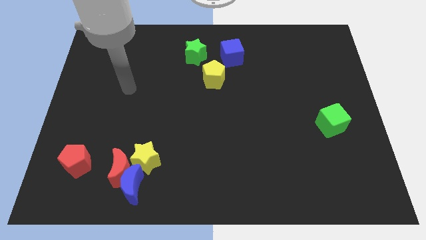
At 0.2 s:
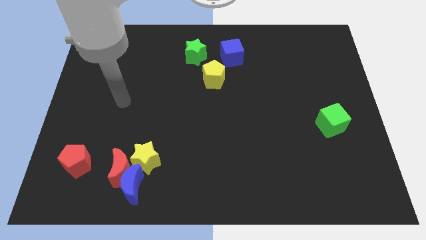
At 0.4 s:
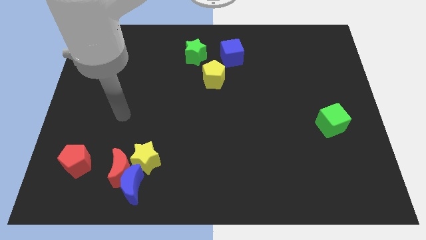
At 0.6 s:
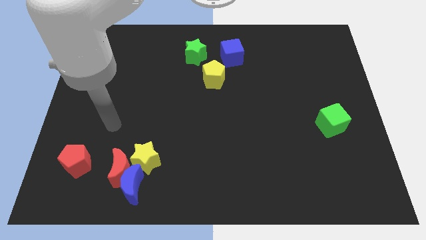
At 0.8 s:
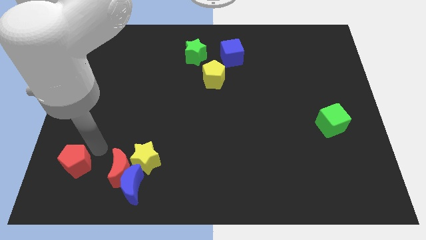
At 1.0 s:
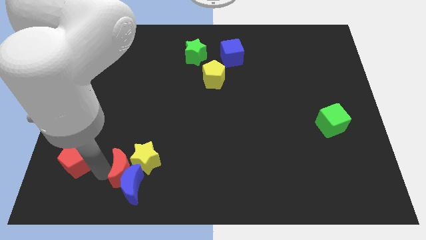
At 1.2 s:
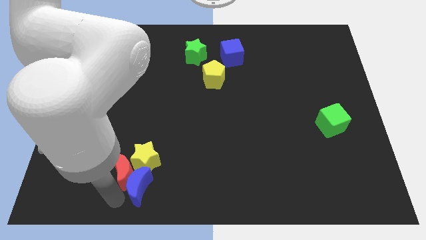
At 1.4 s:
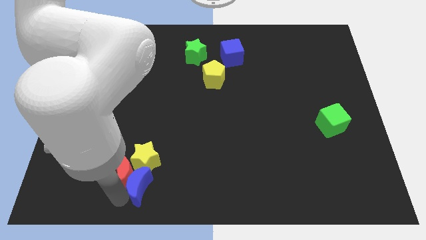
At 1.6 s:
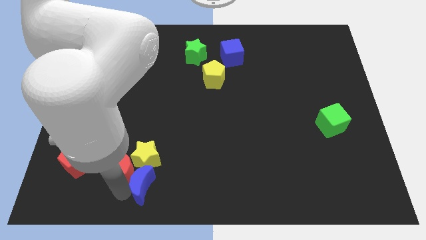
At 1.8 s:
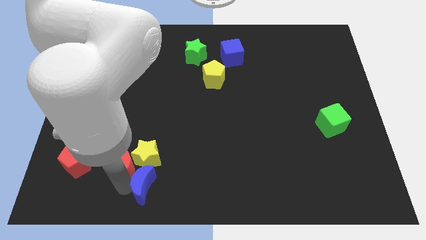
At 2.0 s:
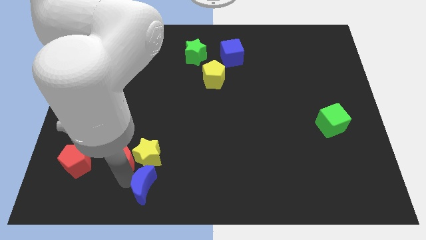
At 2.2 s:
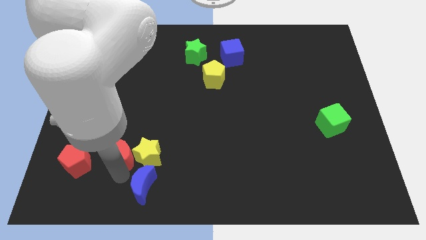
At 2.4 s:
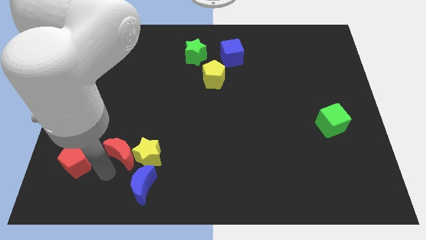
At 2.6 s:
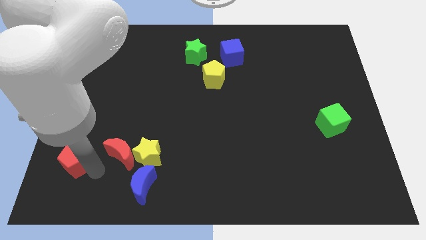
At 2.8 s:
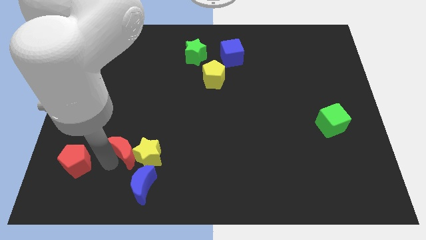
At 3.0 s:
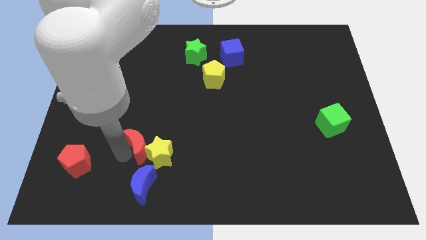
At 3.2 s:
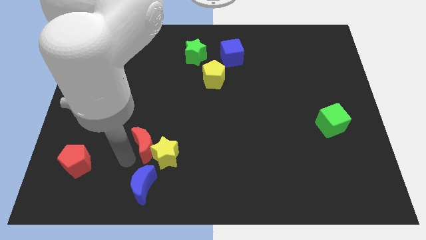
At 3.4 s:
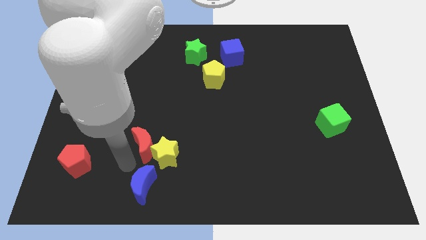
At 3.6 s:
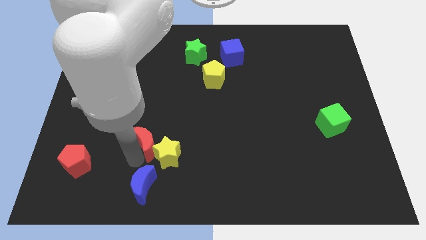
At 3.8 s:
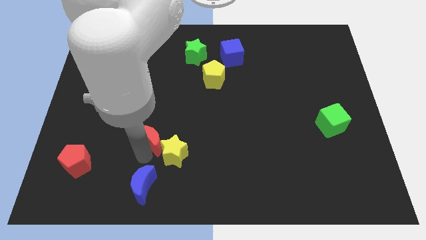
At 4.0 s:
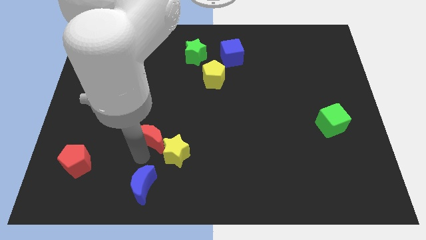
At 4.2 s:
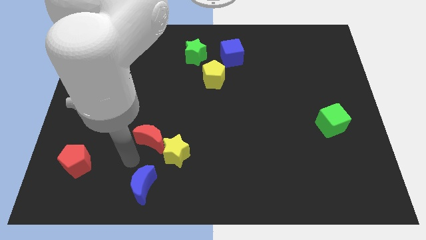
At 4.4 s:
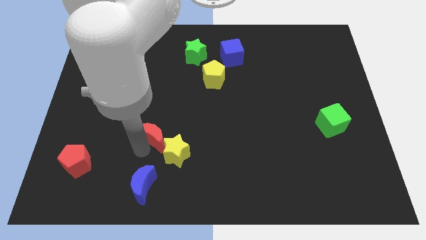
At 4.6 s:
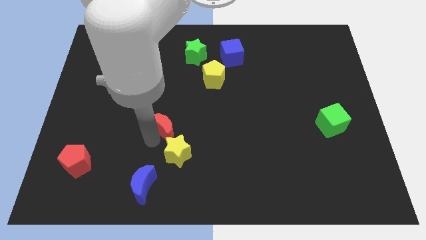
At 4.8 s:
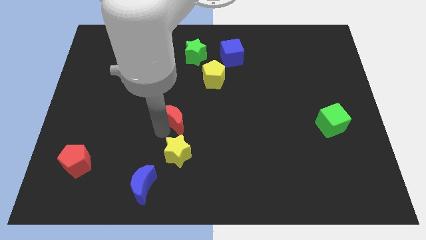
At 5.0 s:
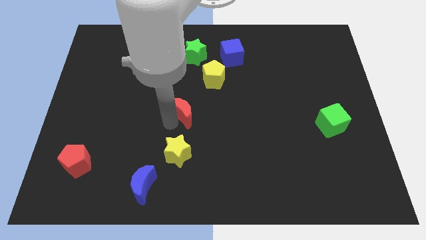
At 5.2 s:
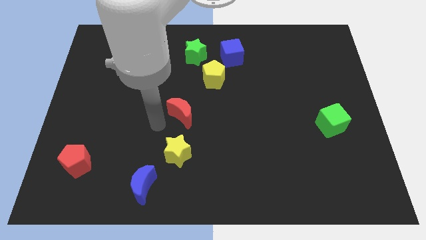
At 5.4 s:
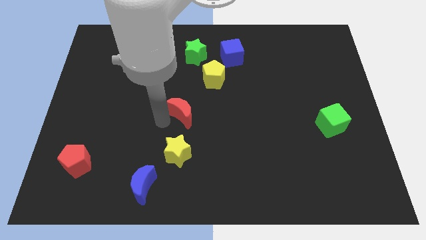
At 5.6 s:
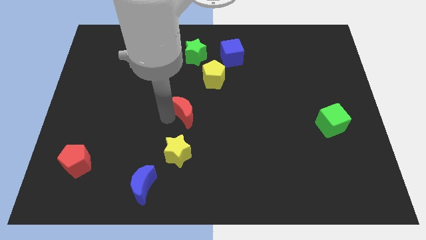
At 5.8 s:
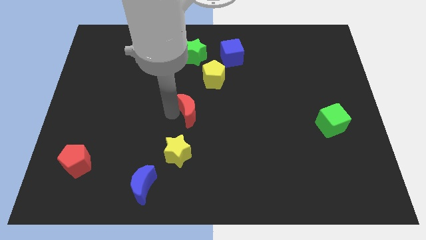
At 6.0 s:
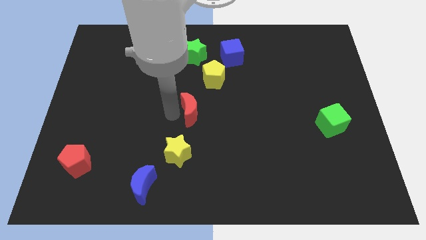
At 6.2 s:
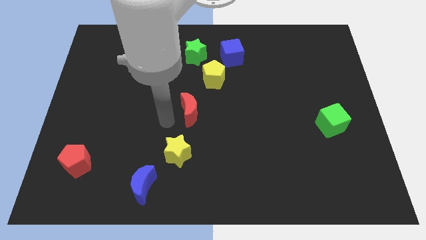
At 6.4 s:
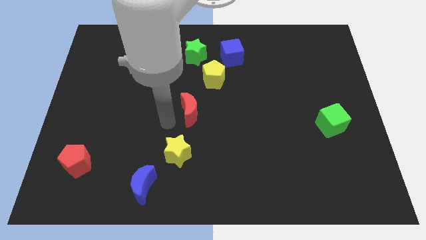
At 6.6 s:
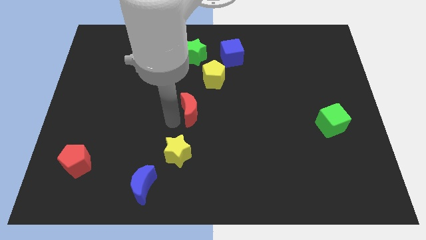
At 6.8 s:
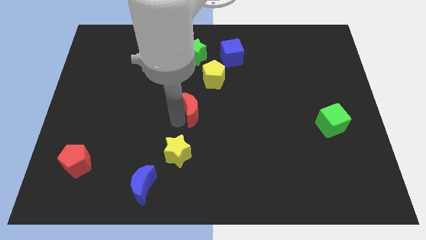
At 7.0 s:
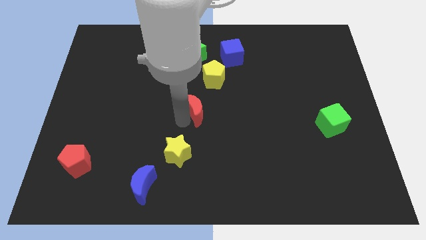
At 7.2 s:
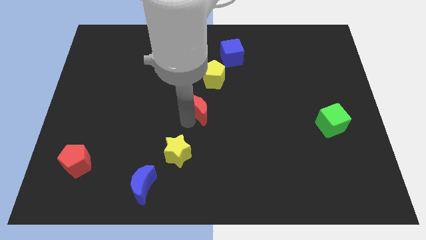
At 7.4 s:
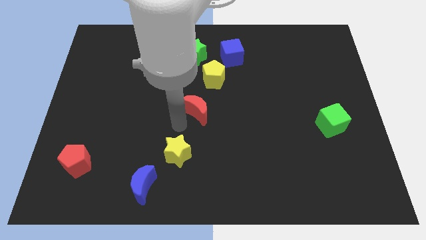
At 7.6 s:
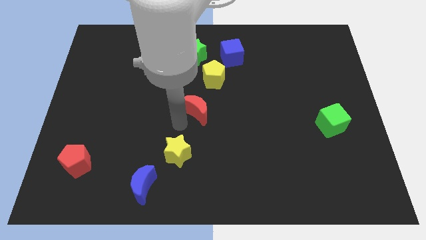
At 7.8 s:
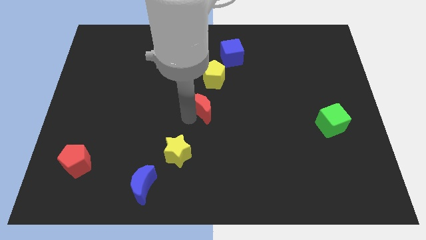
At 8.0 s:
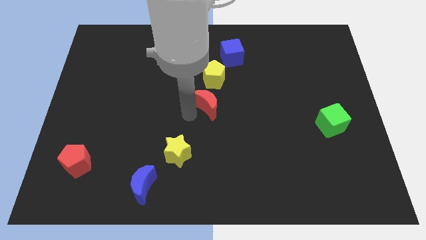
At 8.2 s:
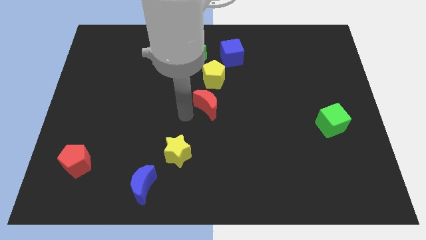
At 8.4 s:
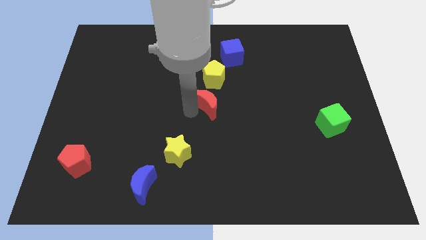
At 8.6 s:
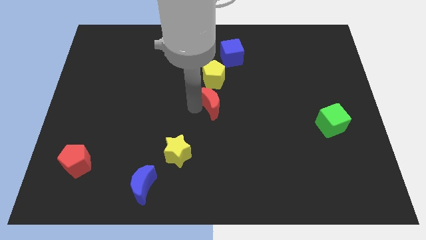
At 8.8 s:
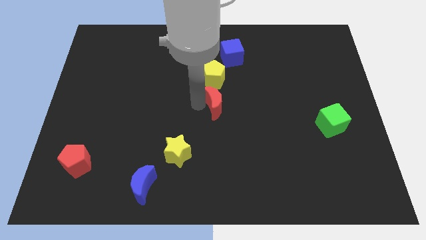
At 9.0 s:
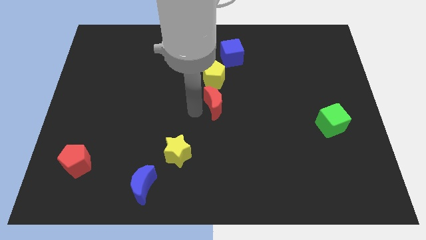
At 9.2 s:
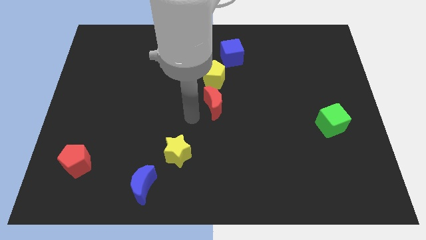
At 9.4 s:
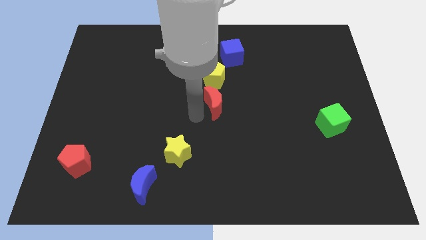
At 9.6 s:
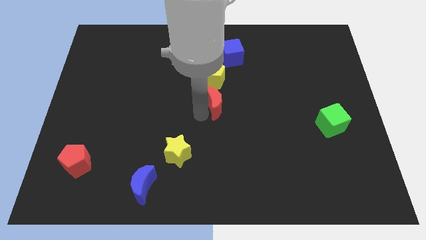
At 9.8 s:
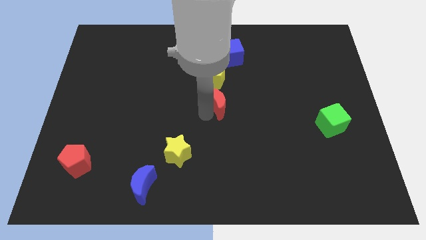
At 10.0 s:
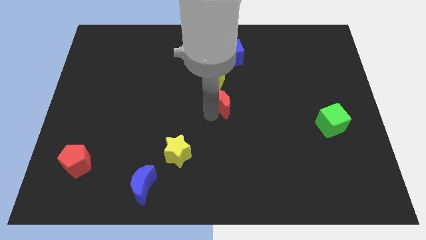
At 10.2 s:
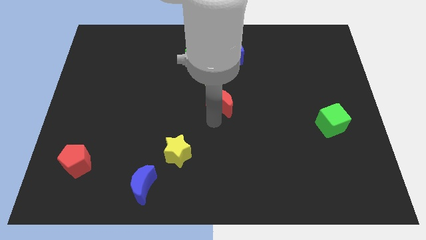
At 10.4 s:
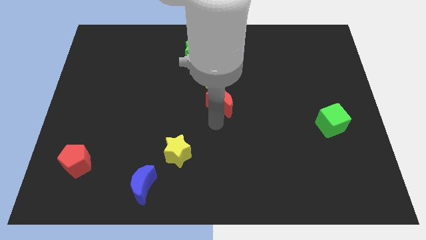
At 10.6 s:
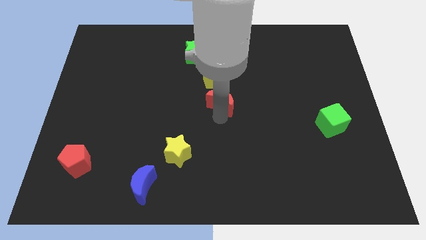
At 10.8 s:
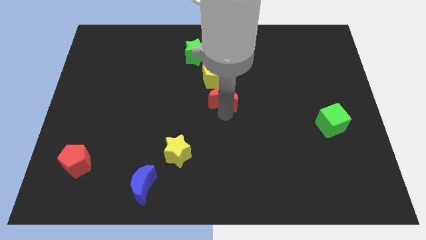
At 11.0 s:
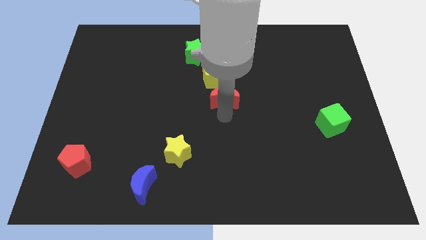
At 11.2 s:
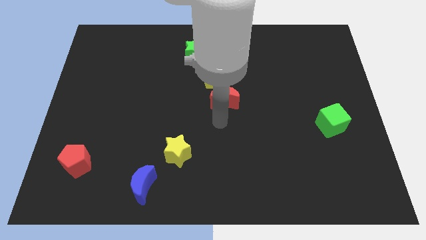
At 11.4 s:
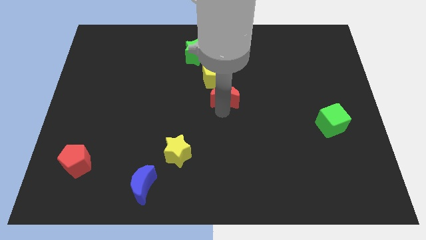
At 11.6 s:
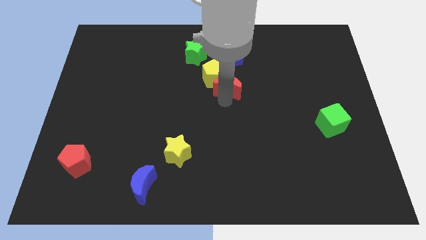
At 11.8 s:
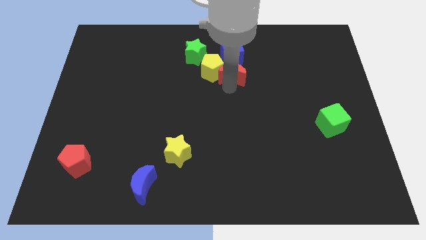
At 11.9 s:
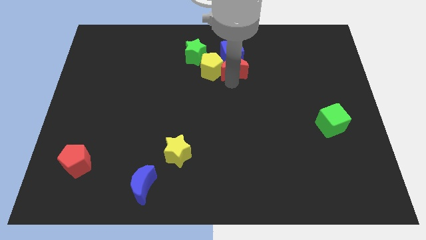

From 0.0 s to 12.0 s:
slide the red moon to the blue cube

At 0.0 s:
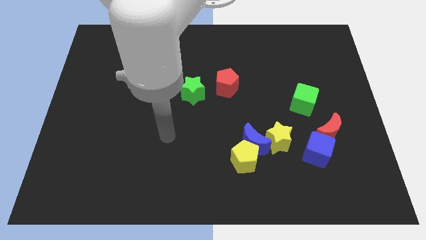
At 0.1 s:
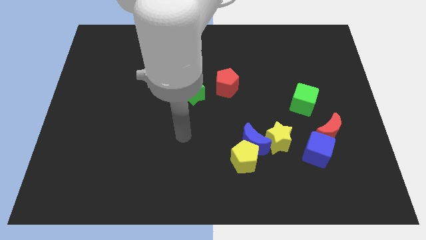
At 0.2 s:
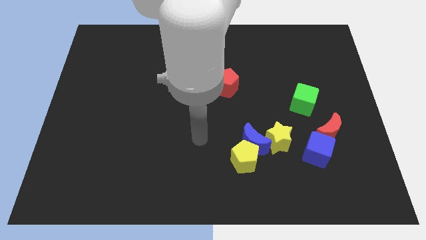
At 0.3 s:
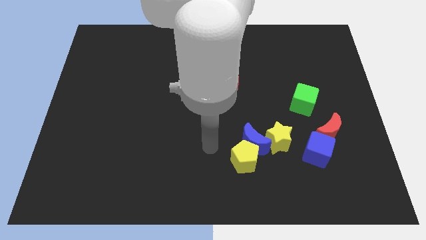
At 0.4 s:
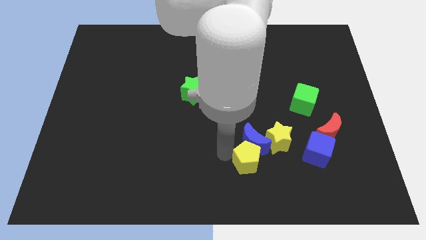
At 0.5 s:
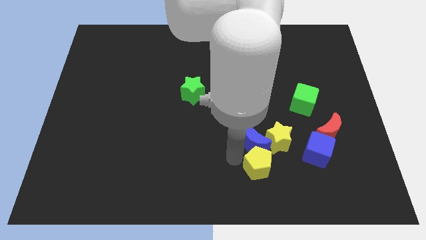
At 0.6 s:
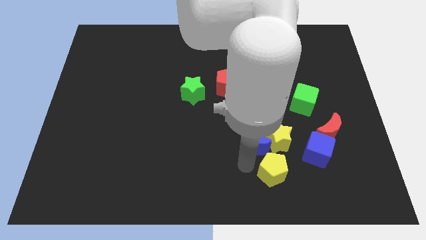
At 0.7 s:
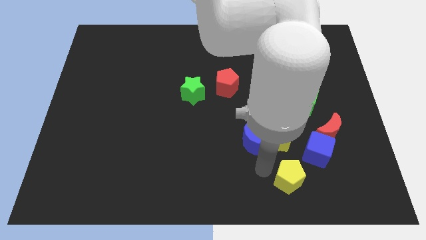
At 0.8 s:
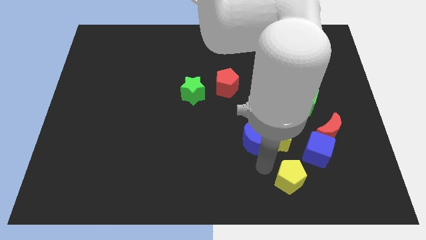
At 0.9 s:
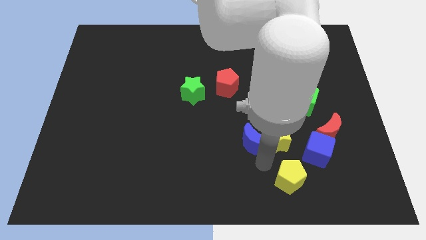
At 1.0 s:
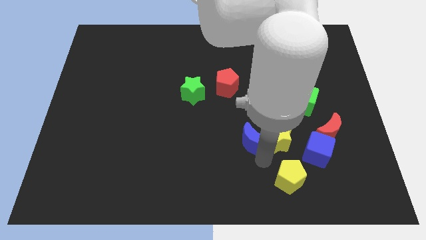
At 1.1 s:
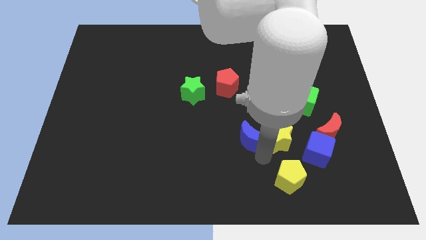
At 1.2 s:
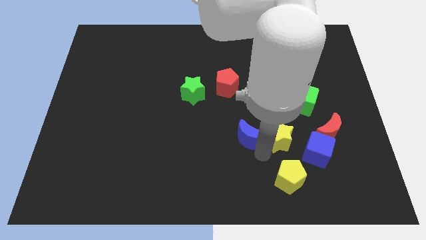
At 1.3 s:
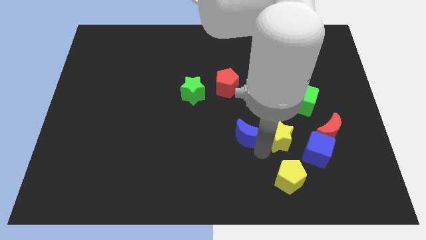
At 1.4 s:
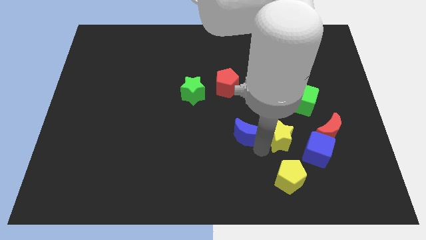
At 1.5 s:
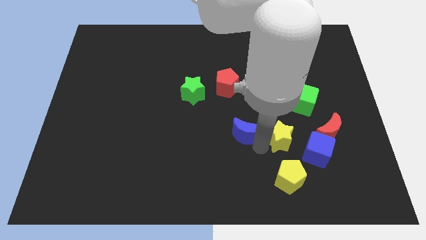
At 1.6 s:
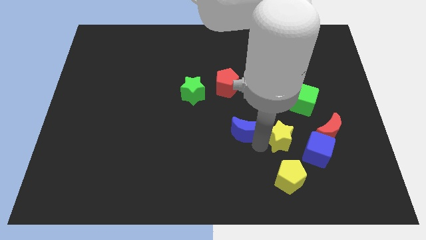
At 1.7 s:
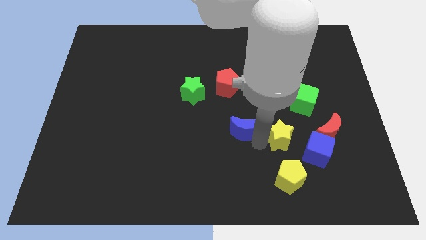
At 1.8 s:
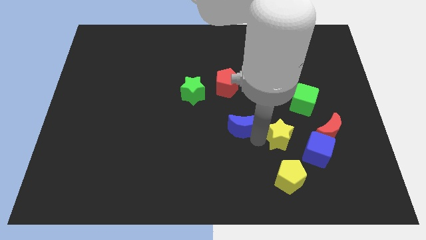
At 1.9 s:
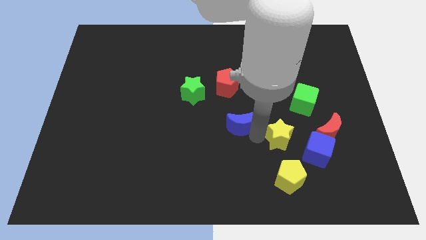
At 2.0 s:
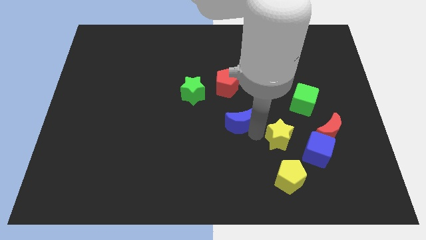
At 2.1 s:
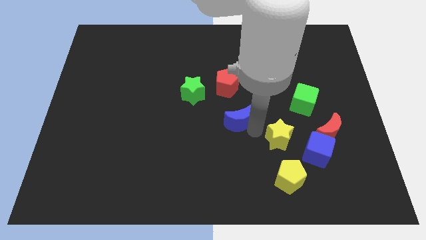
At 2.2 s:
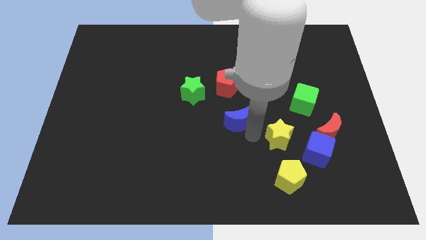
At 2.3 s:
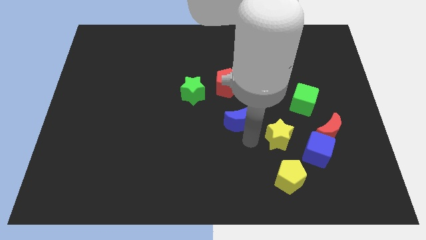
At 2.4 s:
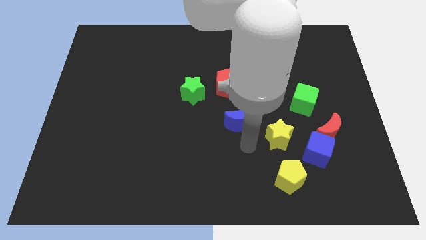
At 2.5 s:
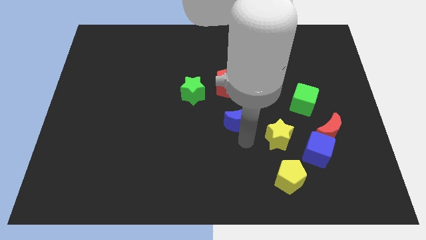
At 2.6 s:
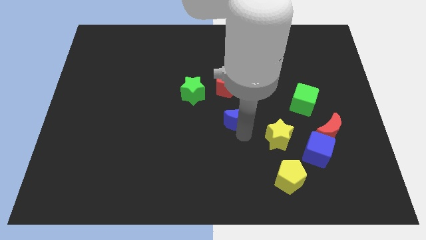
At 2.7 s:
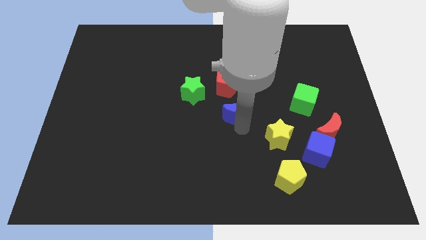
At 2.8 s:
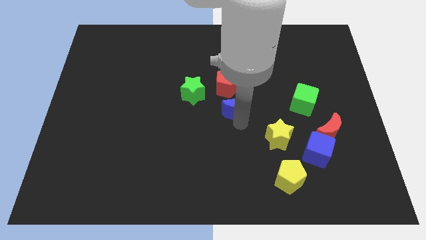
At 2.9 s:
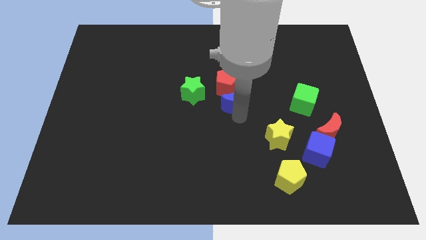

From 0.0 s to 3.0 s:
put the blue moon close to the red pentagon
